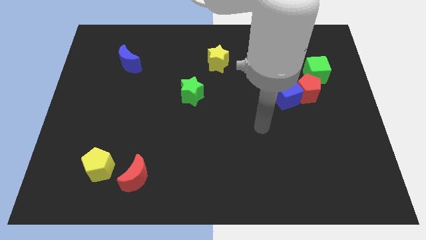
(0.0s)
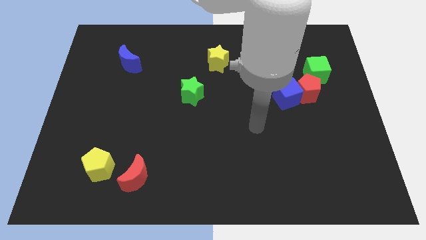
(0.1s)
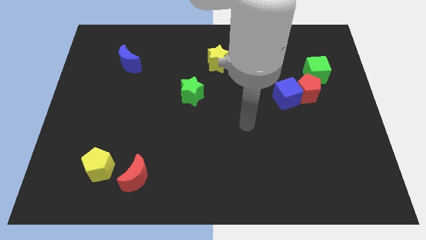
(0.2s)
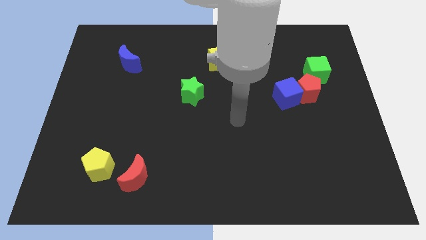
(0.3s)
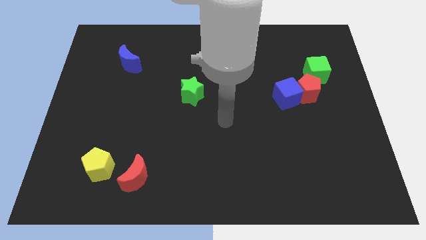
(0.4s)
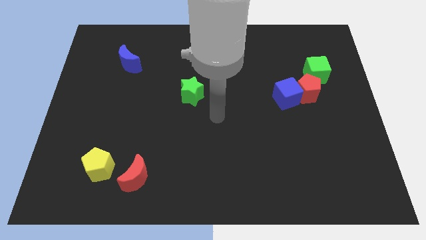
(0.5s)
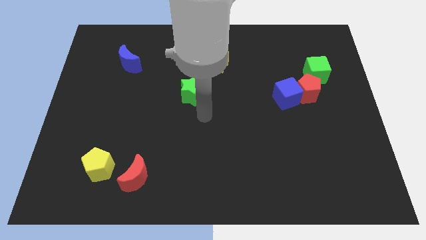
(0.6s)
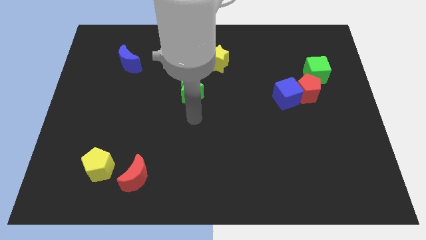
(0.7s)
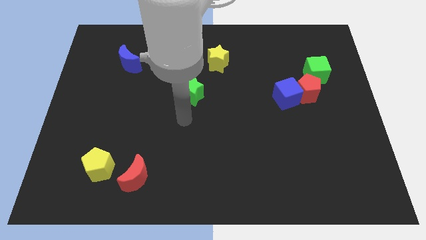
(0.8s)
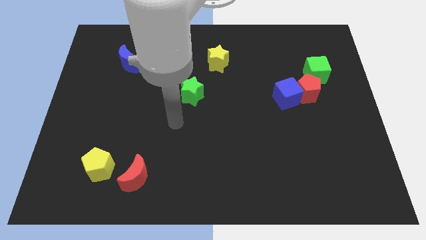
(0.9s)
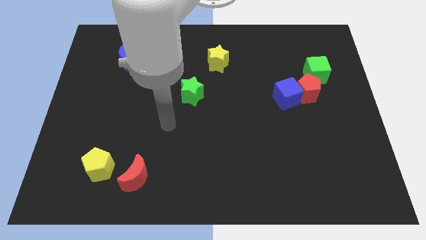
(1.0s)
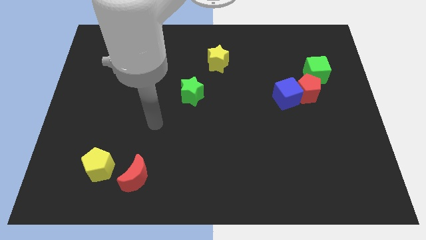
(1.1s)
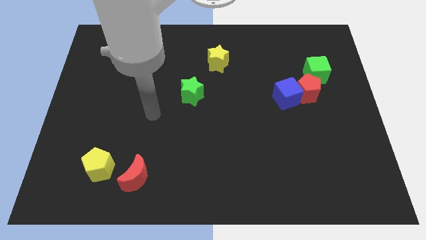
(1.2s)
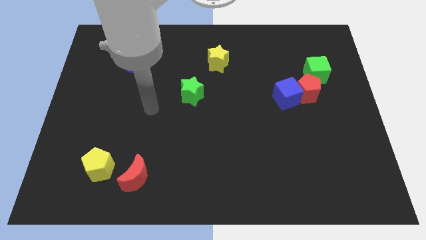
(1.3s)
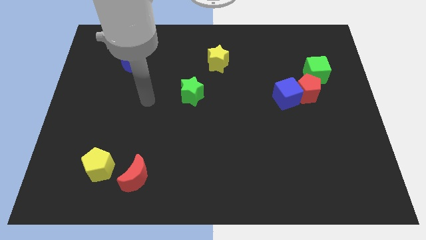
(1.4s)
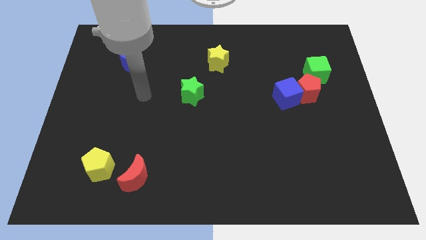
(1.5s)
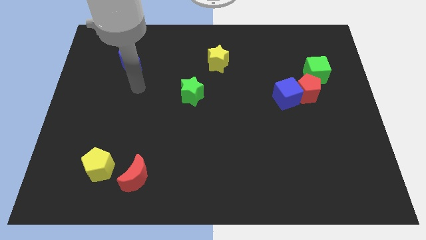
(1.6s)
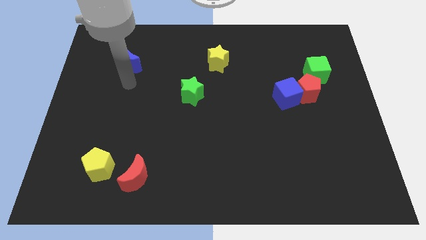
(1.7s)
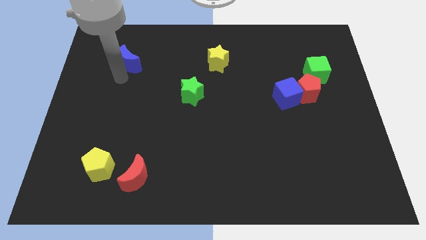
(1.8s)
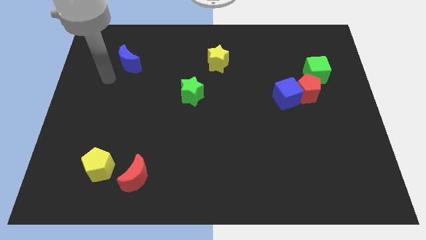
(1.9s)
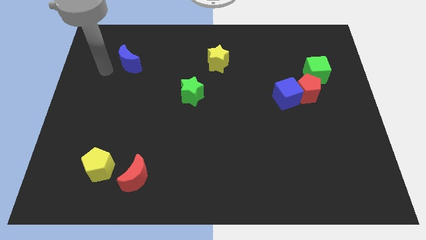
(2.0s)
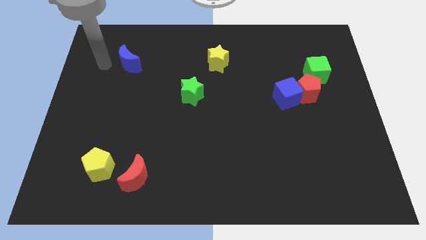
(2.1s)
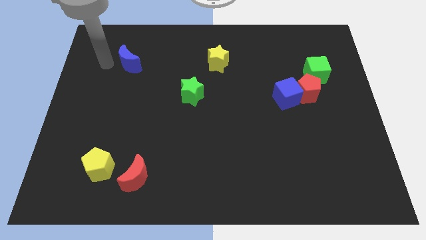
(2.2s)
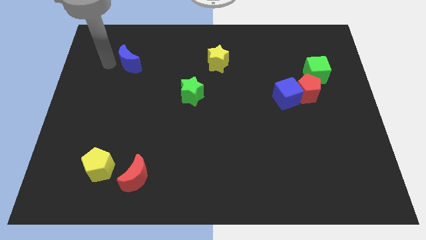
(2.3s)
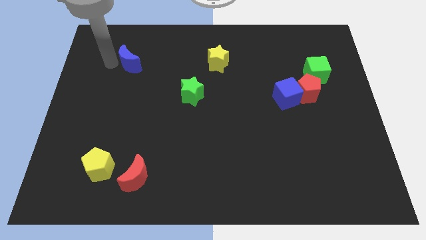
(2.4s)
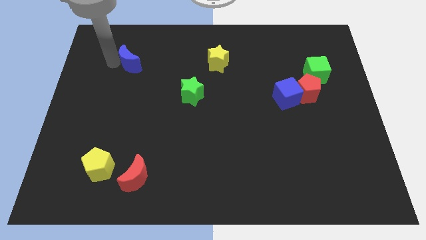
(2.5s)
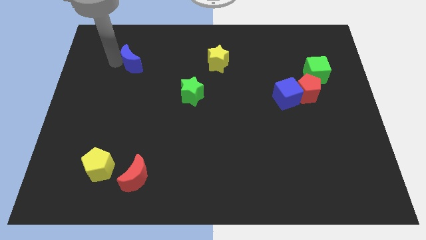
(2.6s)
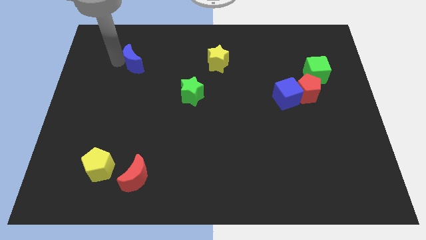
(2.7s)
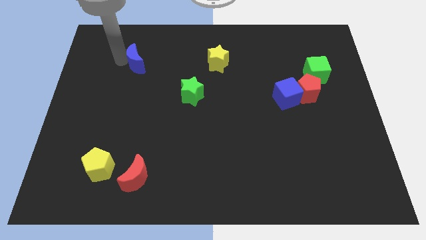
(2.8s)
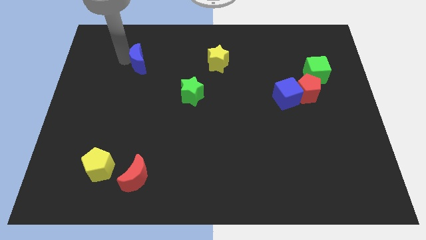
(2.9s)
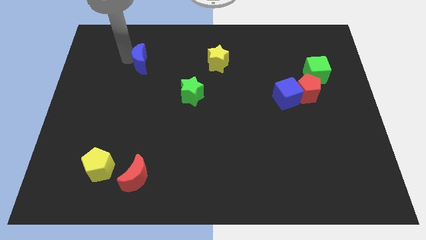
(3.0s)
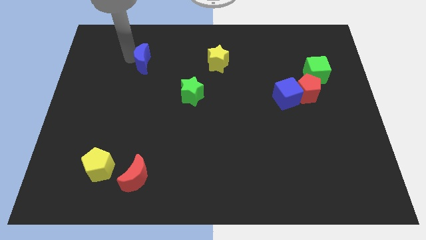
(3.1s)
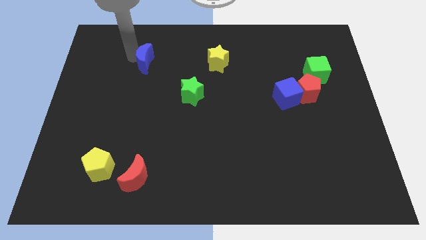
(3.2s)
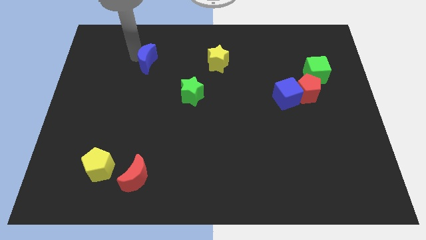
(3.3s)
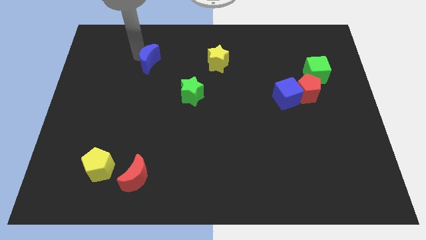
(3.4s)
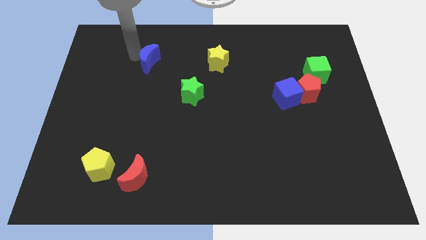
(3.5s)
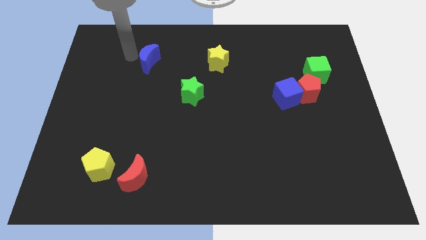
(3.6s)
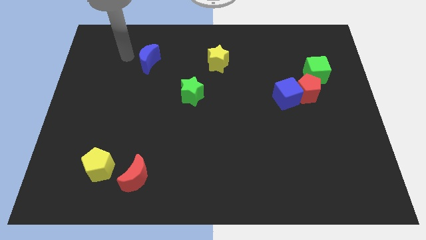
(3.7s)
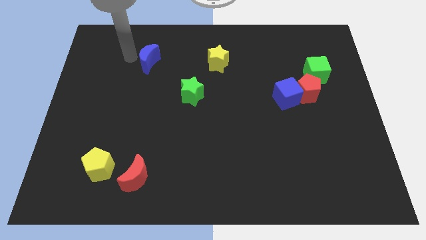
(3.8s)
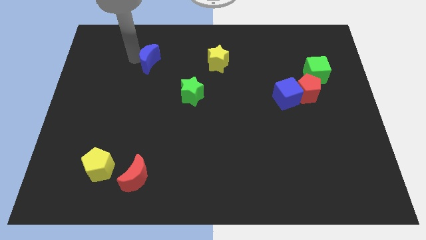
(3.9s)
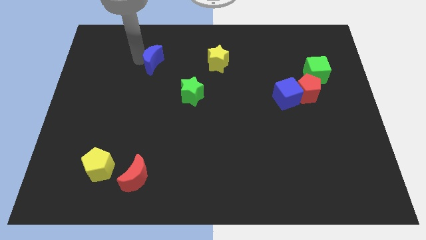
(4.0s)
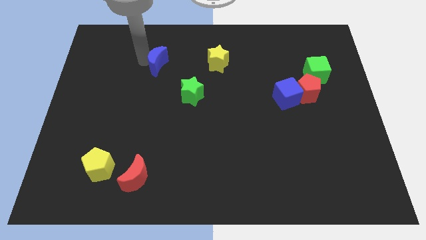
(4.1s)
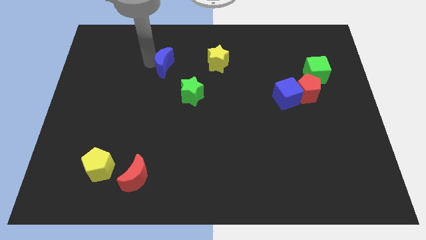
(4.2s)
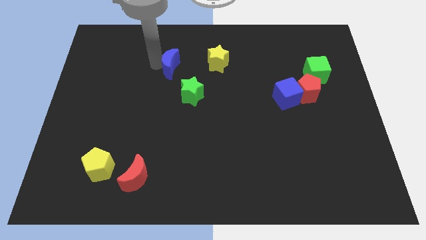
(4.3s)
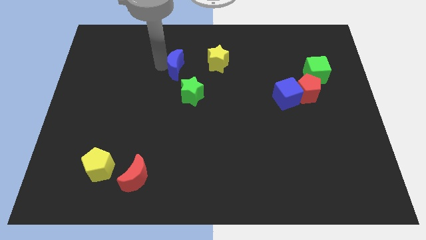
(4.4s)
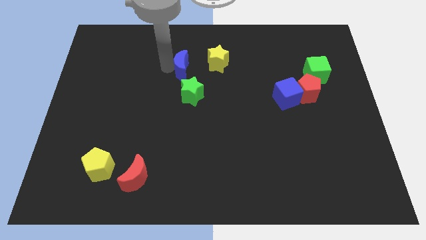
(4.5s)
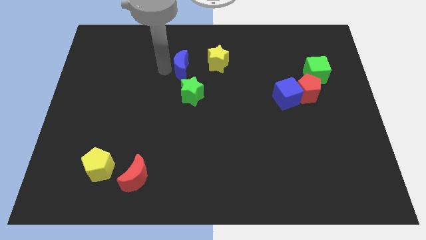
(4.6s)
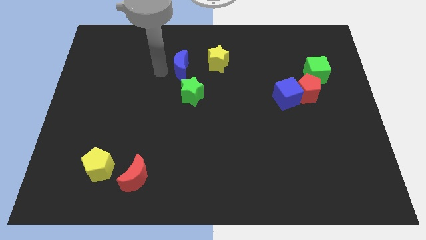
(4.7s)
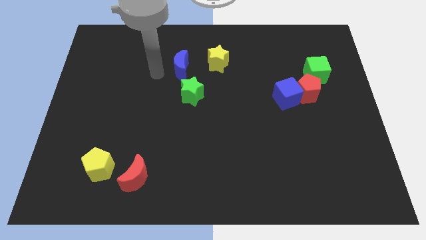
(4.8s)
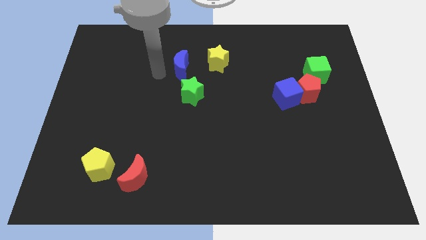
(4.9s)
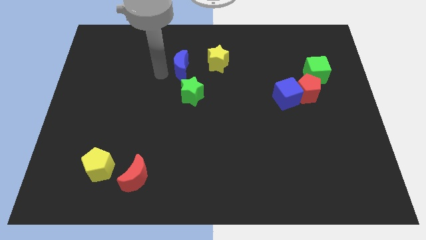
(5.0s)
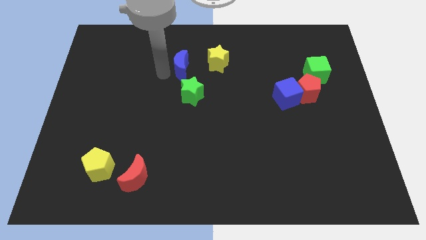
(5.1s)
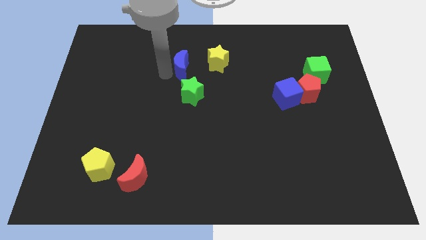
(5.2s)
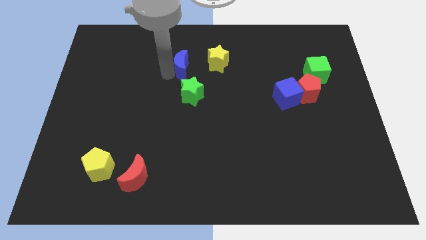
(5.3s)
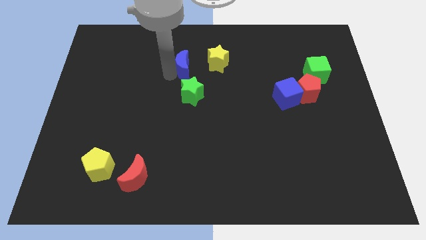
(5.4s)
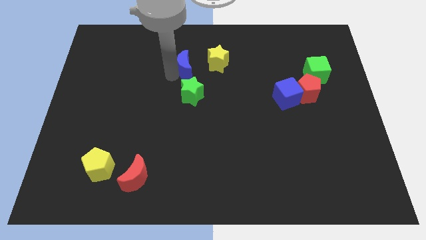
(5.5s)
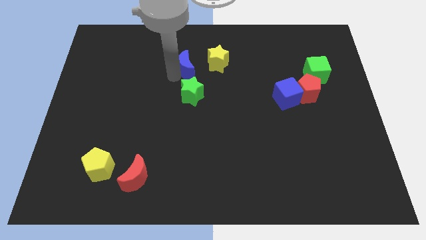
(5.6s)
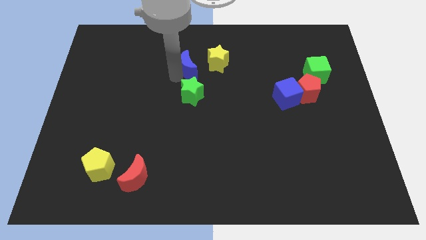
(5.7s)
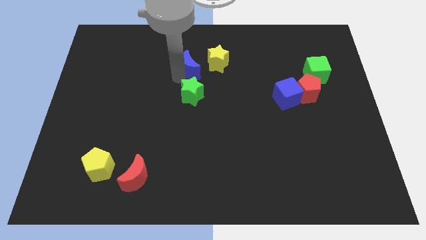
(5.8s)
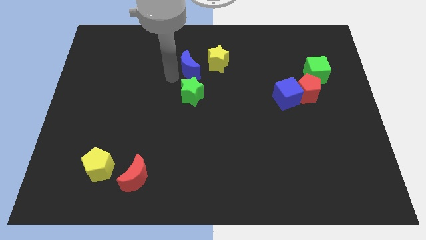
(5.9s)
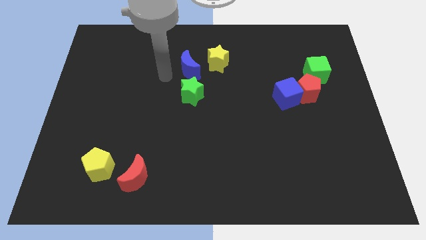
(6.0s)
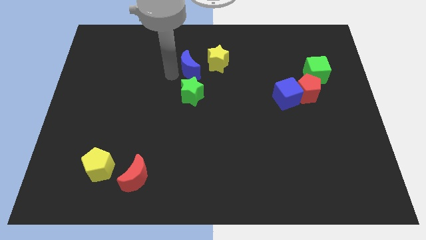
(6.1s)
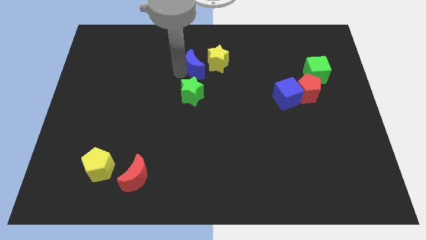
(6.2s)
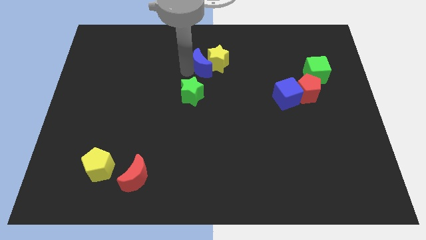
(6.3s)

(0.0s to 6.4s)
put the blue moon to the yellow star

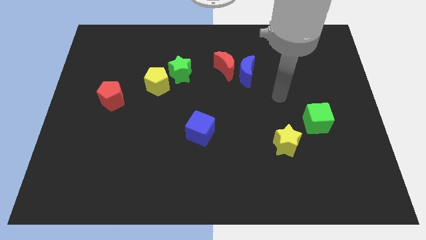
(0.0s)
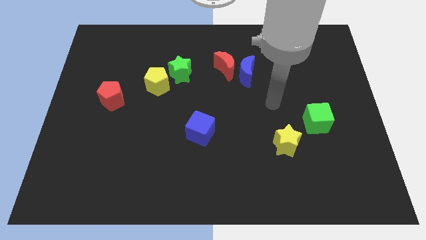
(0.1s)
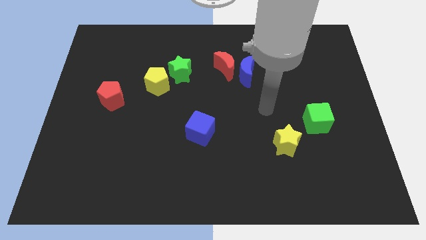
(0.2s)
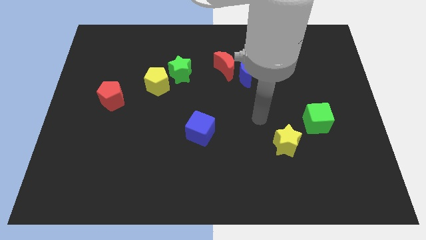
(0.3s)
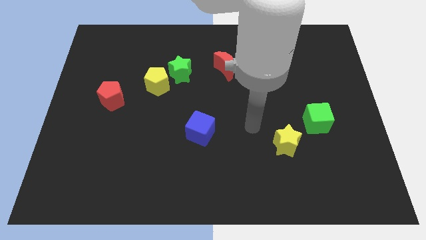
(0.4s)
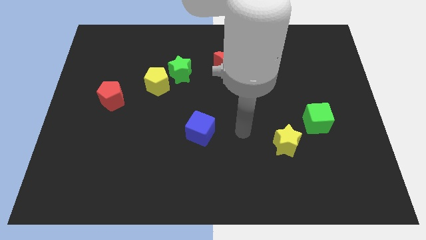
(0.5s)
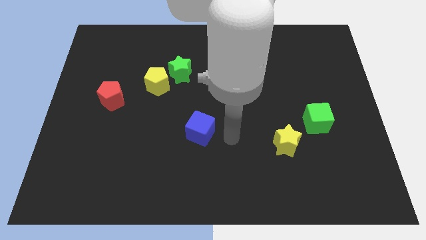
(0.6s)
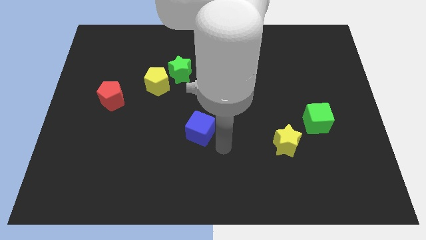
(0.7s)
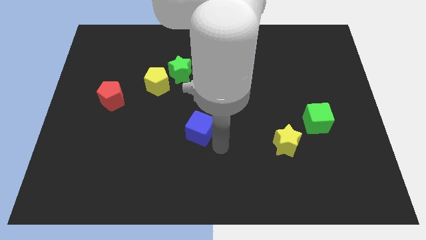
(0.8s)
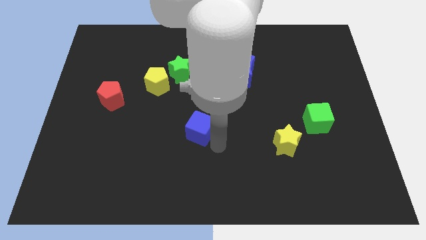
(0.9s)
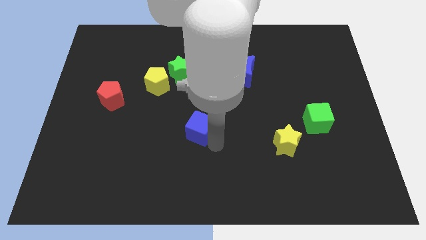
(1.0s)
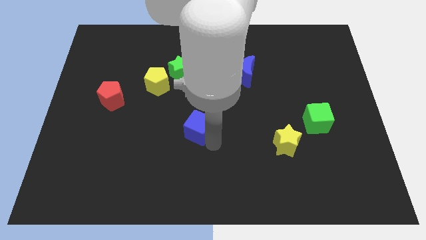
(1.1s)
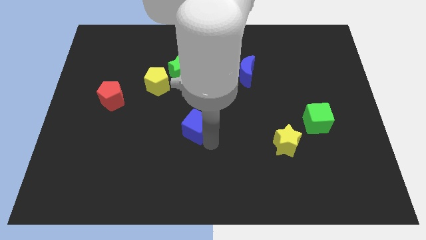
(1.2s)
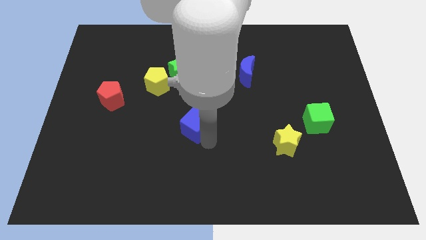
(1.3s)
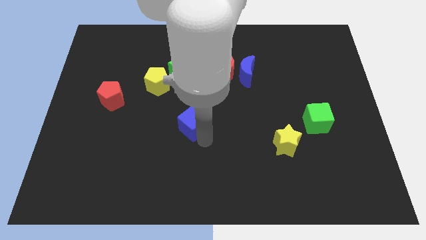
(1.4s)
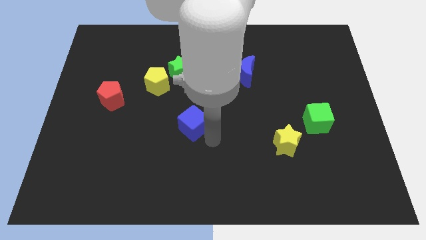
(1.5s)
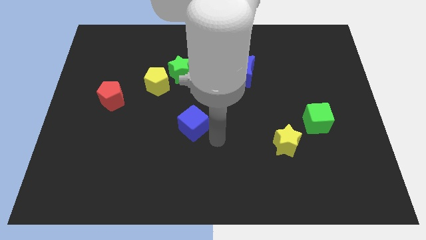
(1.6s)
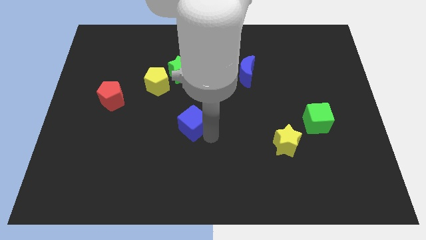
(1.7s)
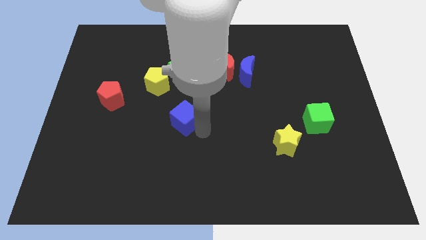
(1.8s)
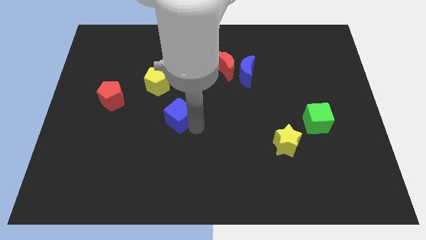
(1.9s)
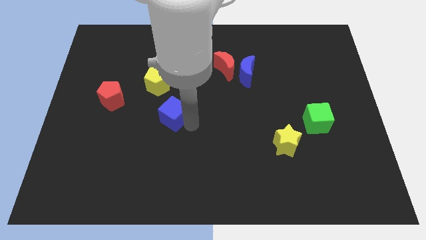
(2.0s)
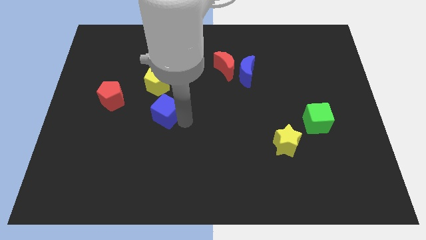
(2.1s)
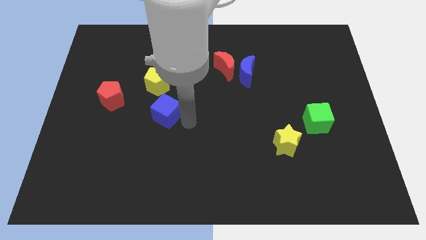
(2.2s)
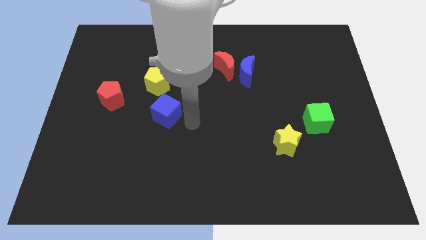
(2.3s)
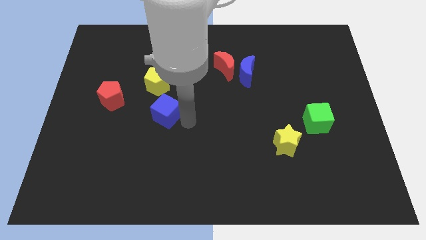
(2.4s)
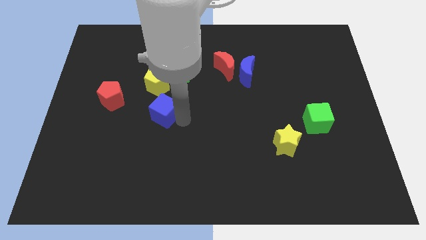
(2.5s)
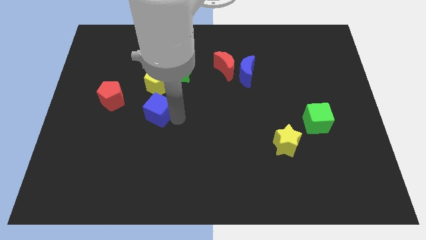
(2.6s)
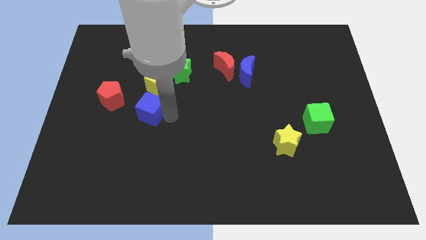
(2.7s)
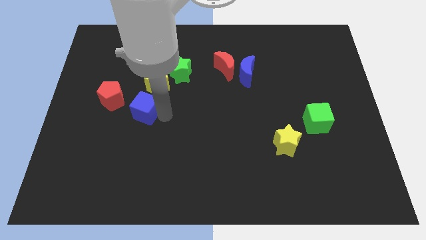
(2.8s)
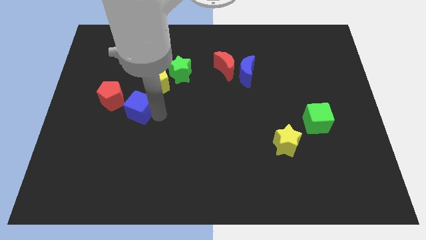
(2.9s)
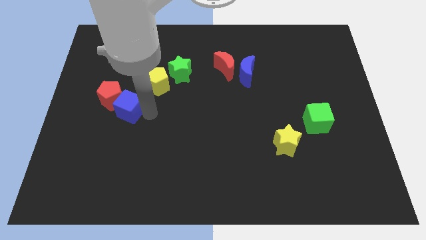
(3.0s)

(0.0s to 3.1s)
push the blue cube close to the red pentagon
